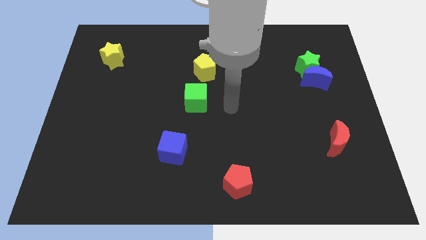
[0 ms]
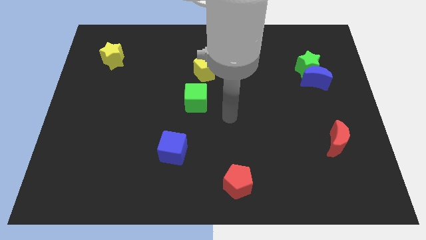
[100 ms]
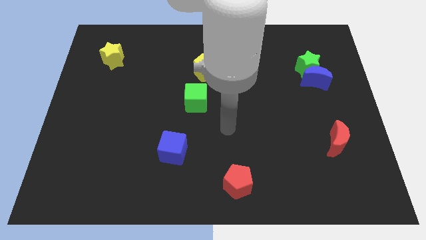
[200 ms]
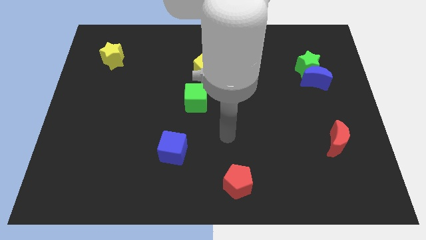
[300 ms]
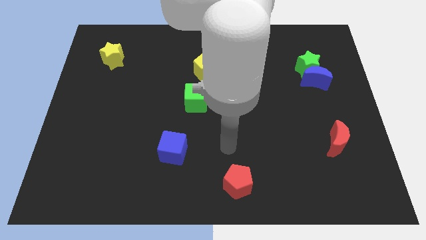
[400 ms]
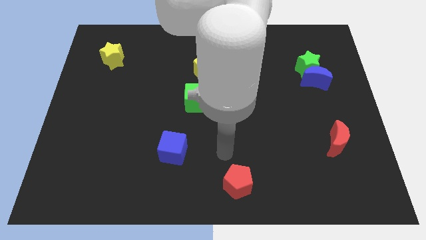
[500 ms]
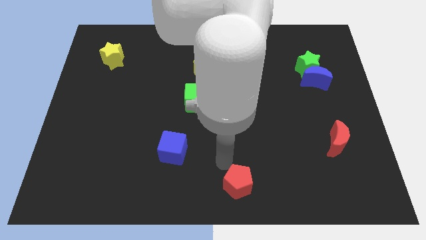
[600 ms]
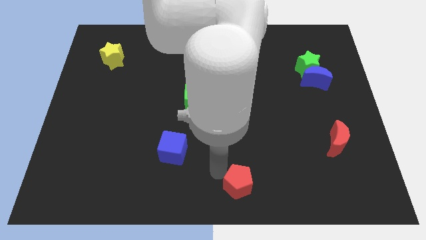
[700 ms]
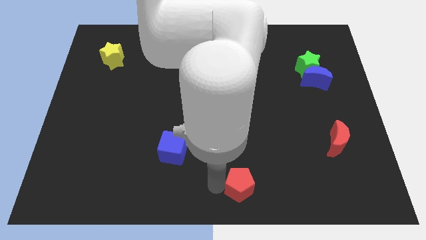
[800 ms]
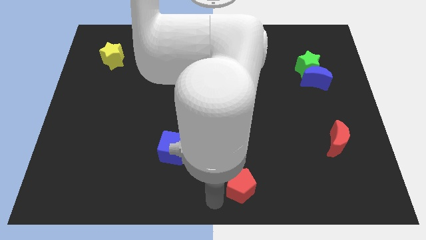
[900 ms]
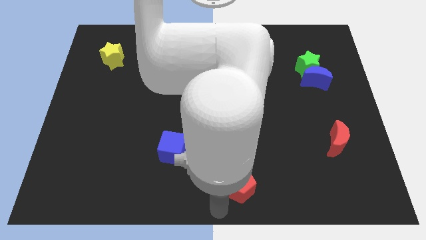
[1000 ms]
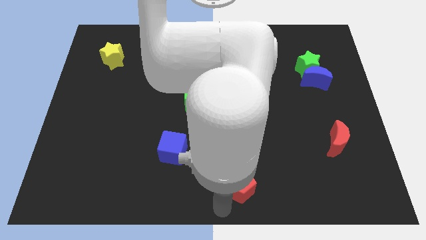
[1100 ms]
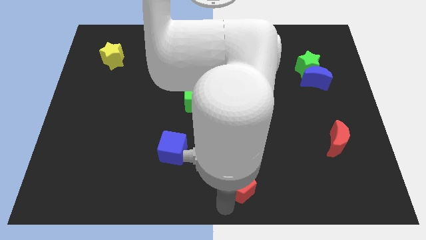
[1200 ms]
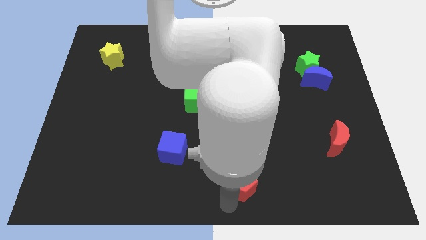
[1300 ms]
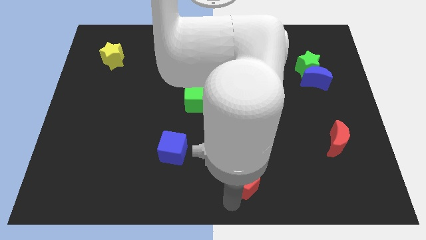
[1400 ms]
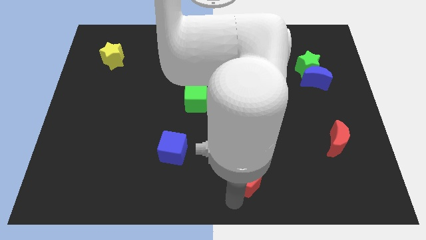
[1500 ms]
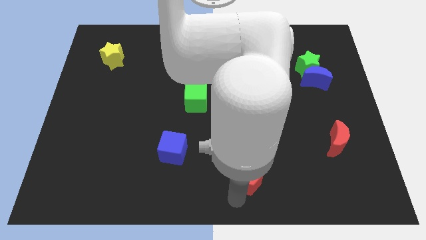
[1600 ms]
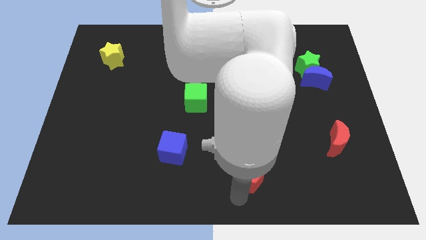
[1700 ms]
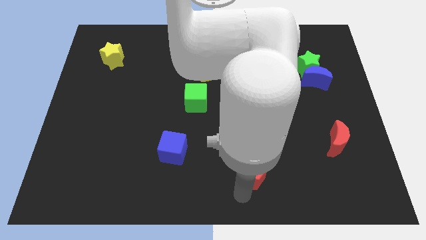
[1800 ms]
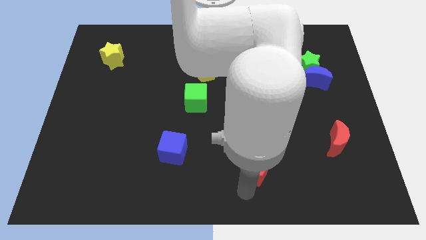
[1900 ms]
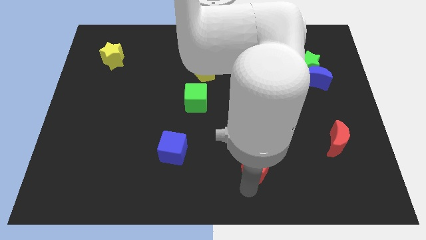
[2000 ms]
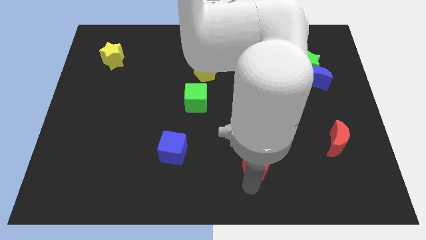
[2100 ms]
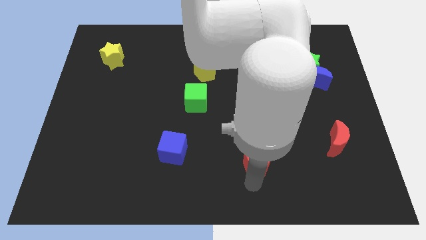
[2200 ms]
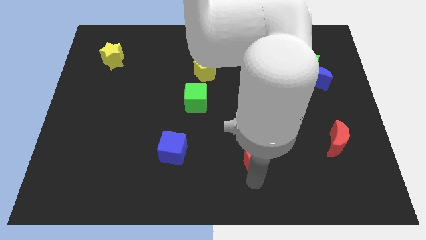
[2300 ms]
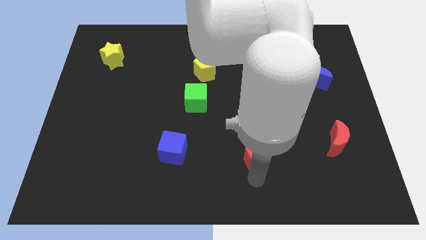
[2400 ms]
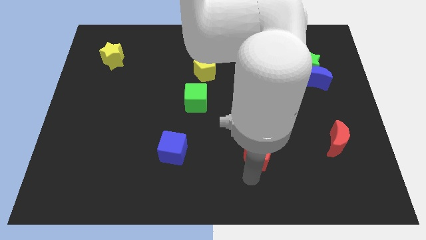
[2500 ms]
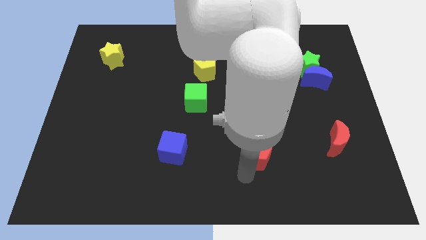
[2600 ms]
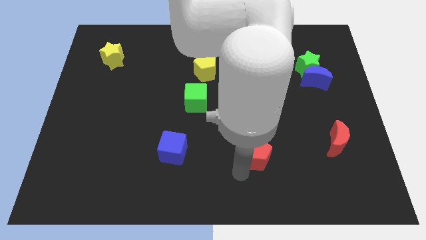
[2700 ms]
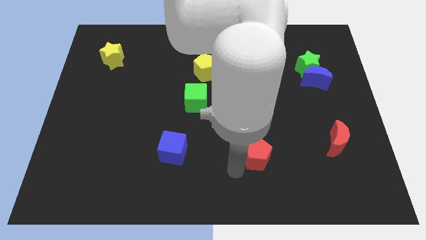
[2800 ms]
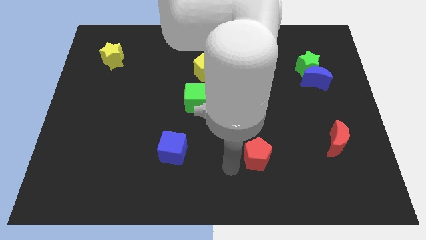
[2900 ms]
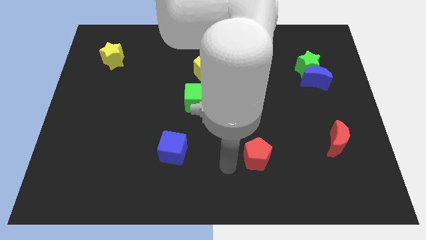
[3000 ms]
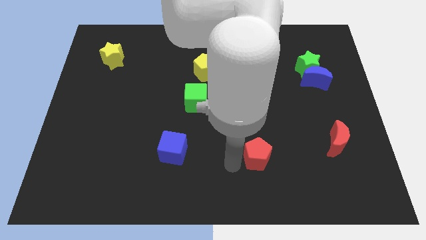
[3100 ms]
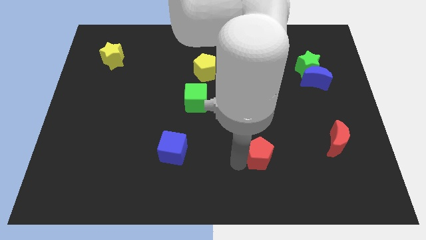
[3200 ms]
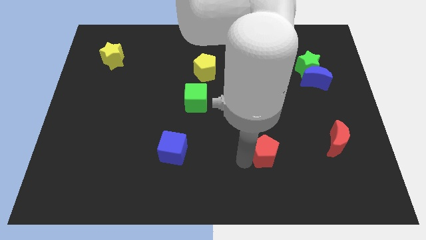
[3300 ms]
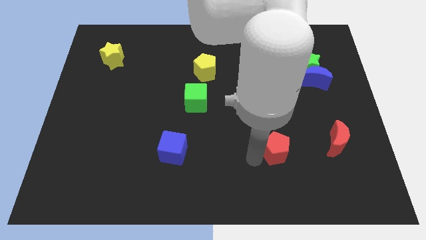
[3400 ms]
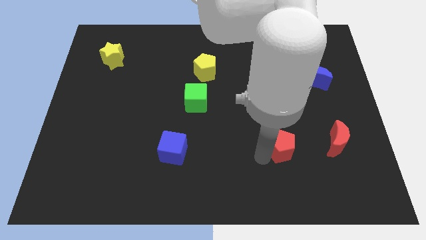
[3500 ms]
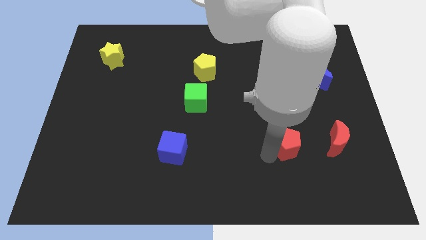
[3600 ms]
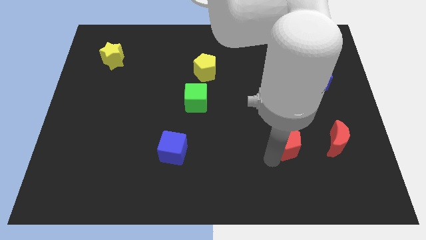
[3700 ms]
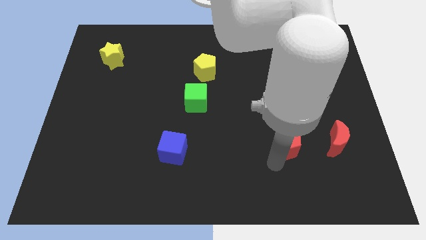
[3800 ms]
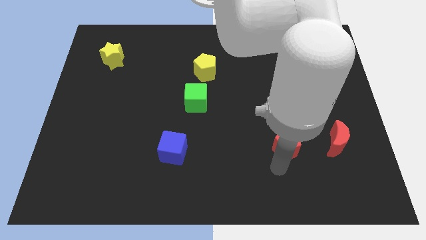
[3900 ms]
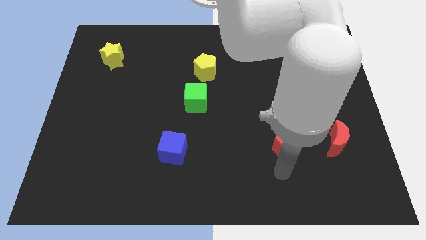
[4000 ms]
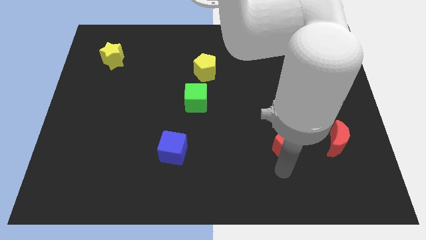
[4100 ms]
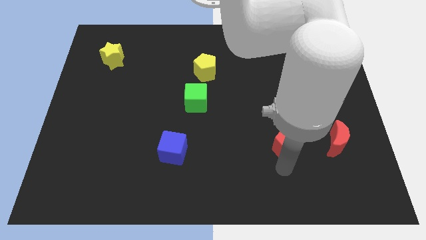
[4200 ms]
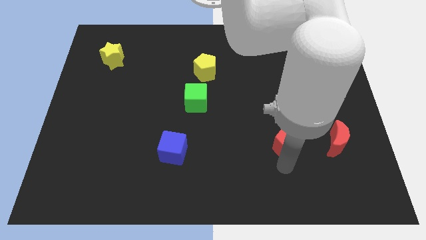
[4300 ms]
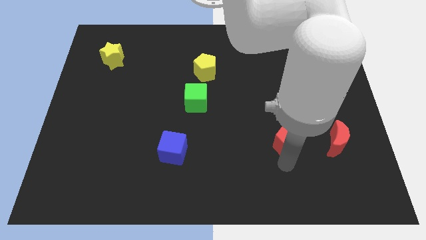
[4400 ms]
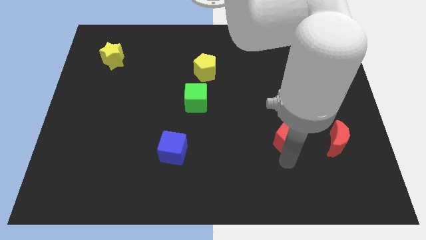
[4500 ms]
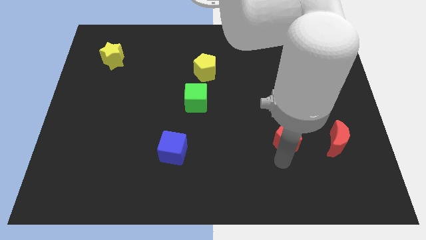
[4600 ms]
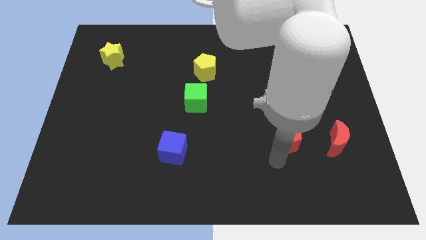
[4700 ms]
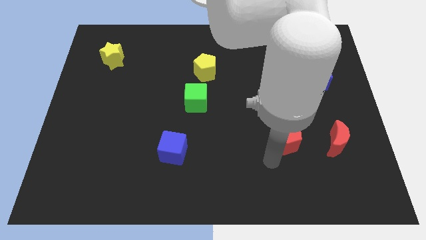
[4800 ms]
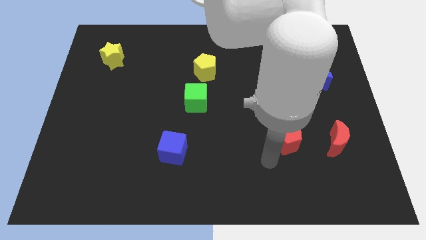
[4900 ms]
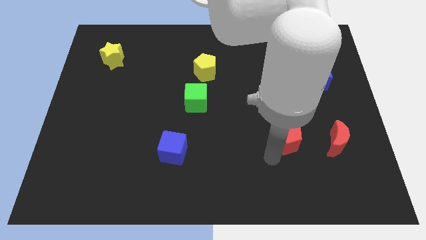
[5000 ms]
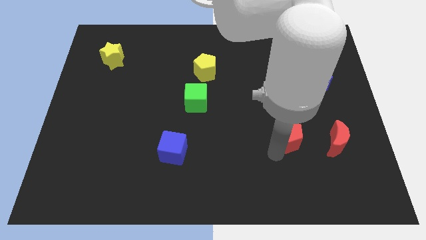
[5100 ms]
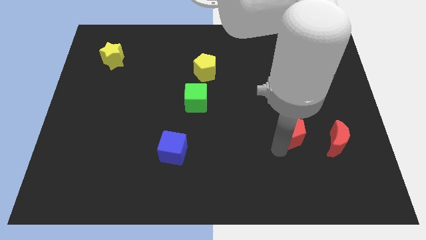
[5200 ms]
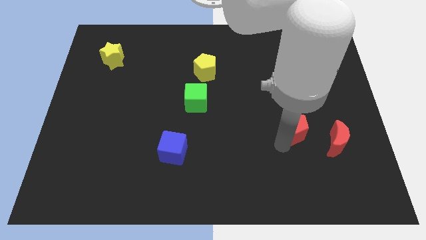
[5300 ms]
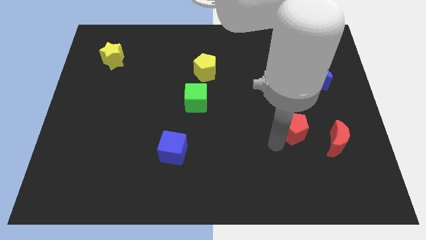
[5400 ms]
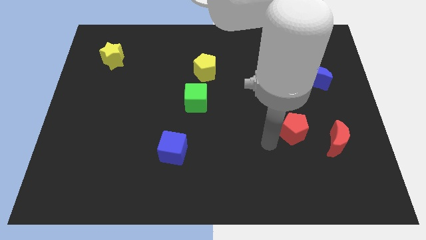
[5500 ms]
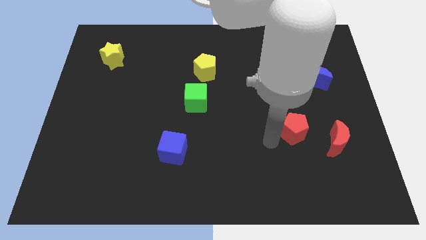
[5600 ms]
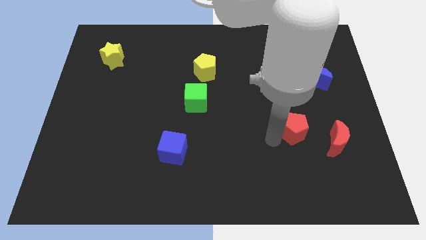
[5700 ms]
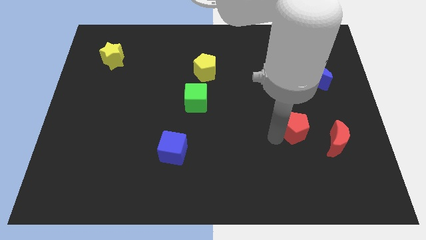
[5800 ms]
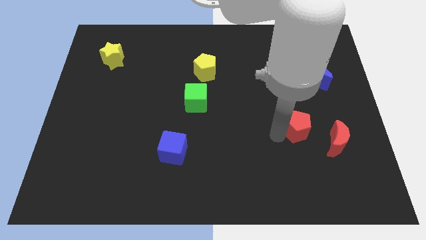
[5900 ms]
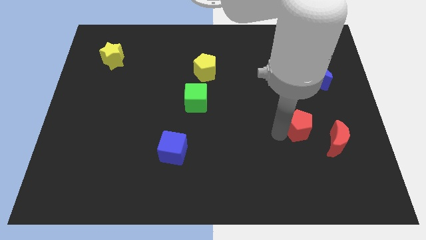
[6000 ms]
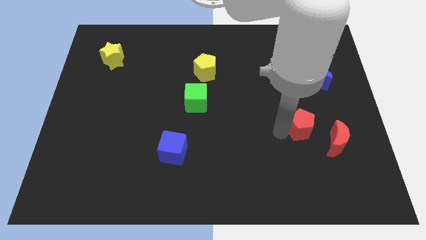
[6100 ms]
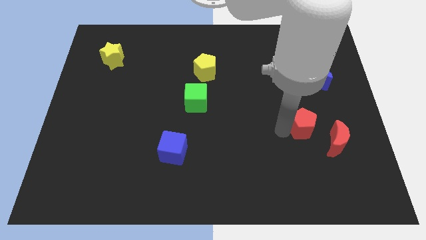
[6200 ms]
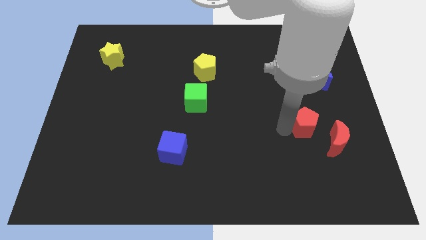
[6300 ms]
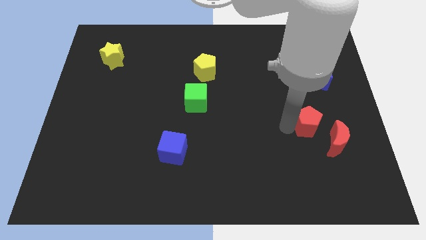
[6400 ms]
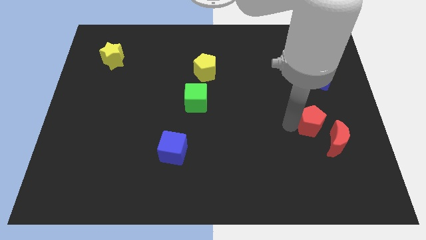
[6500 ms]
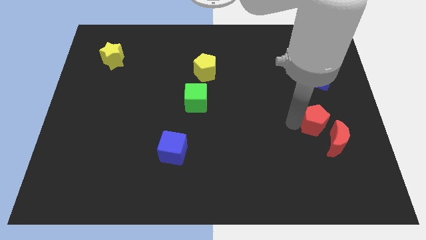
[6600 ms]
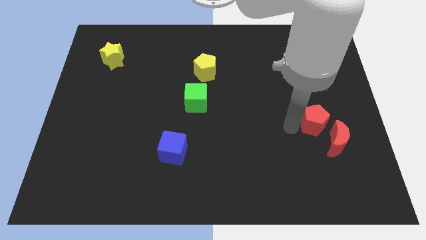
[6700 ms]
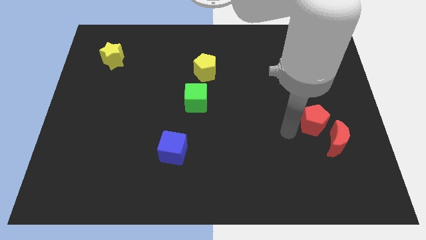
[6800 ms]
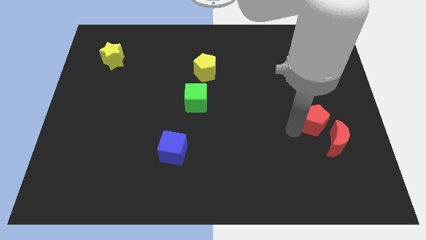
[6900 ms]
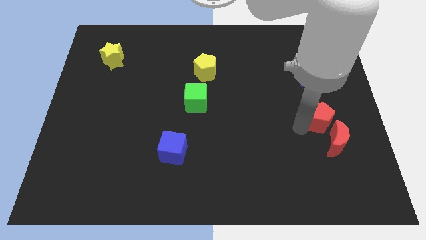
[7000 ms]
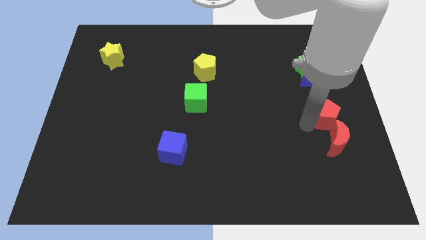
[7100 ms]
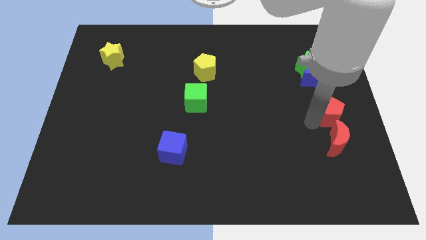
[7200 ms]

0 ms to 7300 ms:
push the red pentagon to the right side of the board
